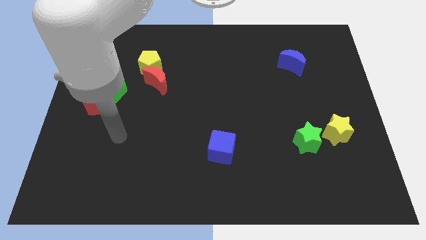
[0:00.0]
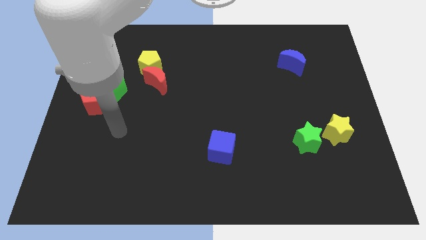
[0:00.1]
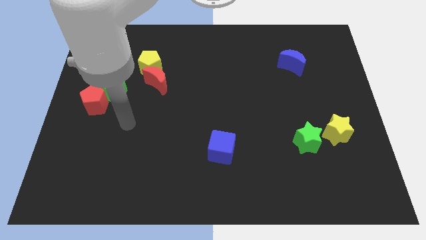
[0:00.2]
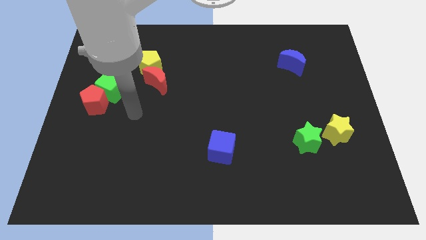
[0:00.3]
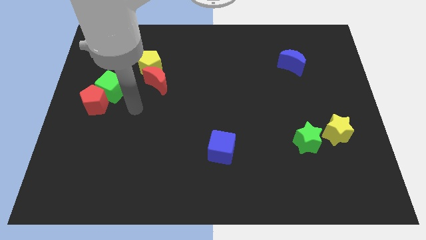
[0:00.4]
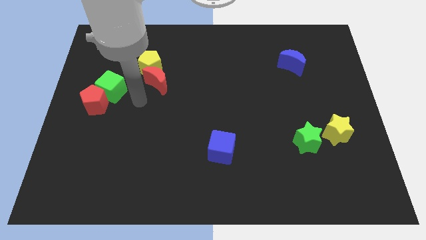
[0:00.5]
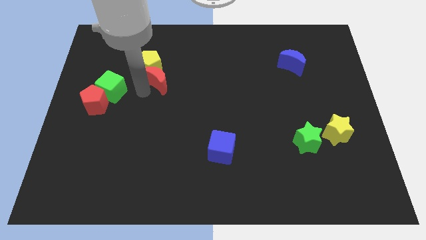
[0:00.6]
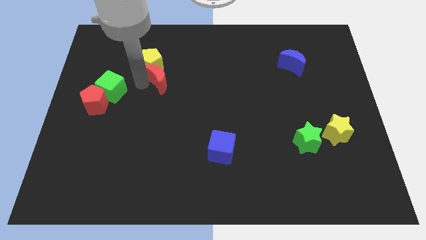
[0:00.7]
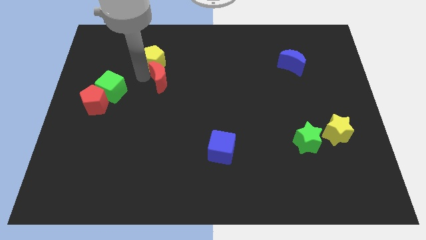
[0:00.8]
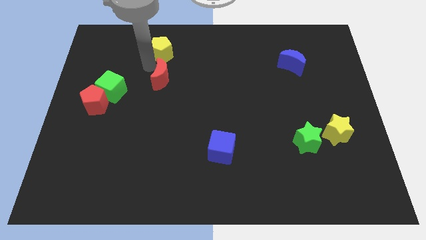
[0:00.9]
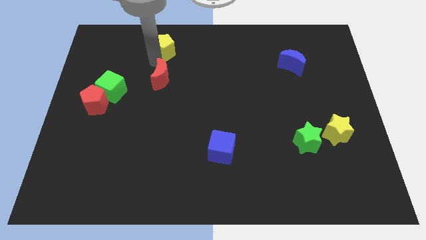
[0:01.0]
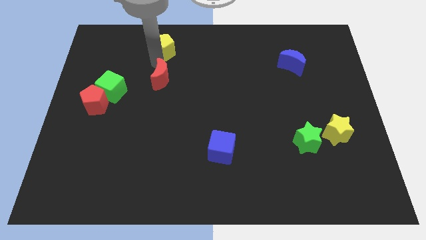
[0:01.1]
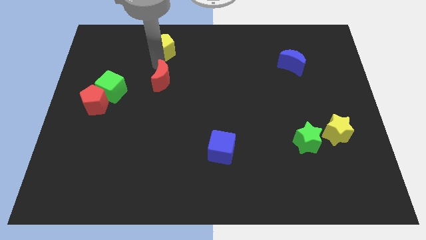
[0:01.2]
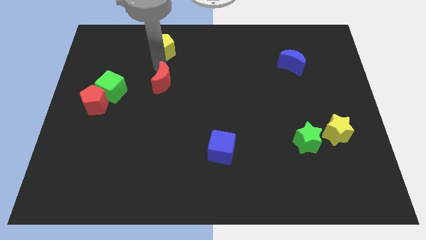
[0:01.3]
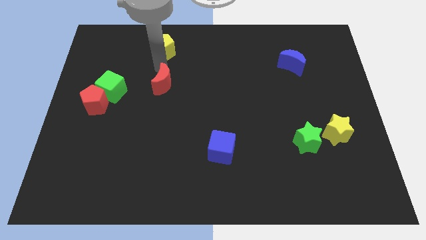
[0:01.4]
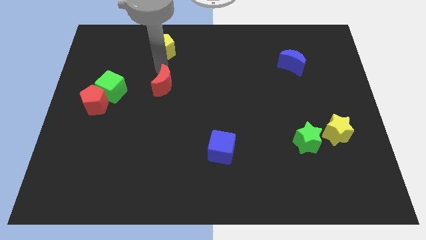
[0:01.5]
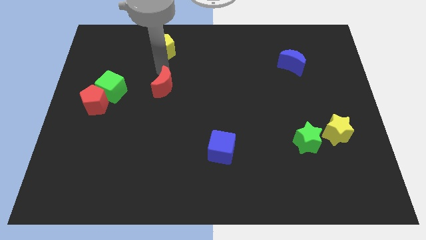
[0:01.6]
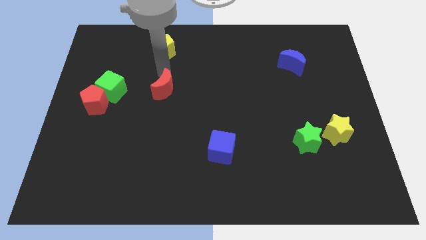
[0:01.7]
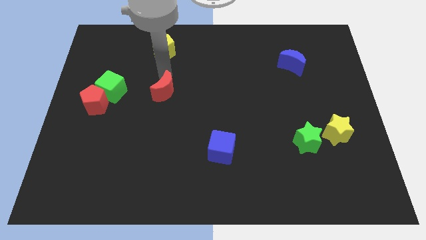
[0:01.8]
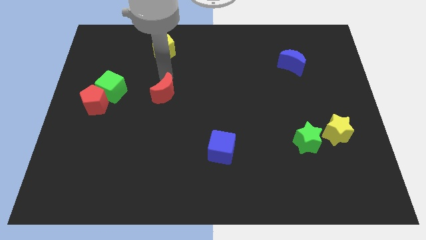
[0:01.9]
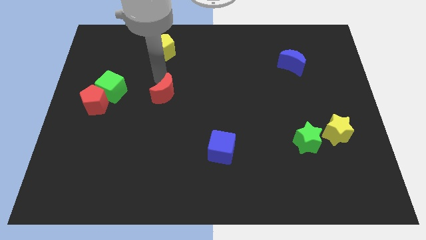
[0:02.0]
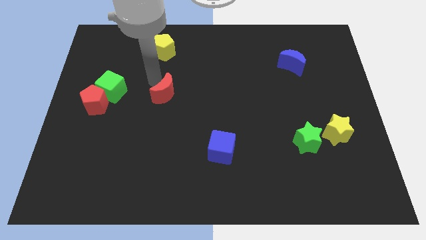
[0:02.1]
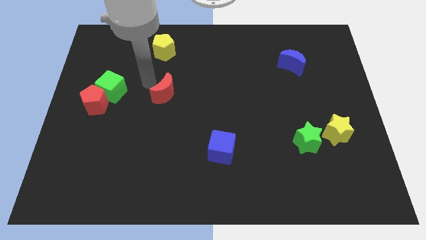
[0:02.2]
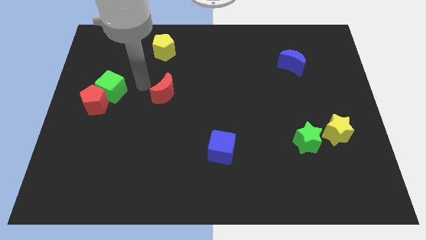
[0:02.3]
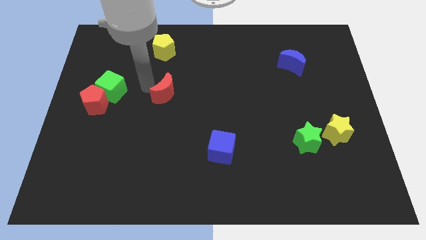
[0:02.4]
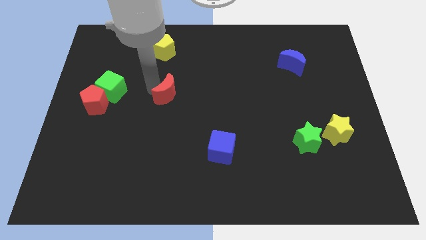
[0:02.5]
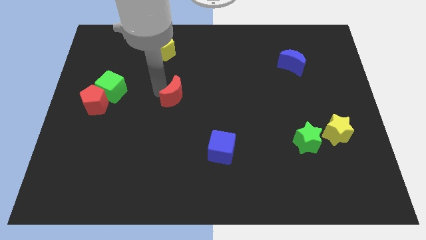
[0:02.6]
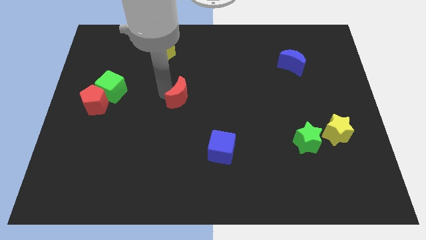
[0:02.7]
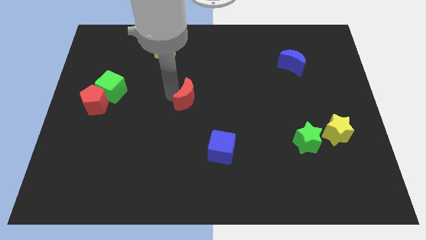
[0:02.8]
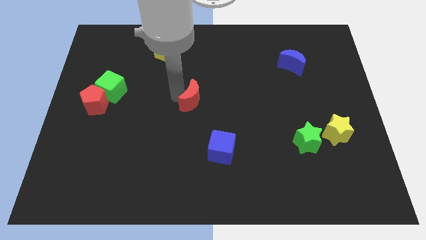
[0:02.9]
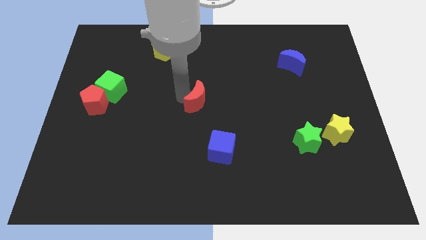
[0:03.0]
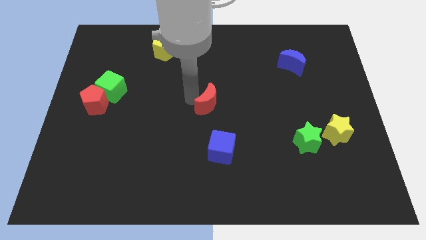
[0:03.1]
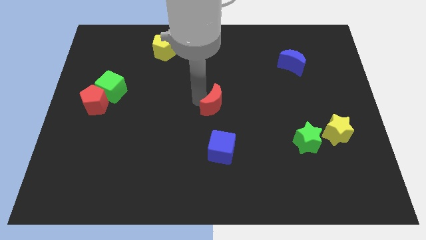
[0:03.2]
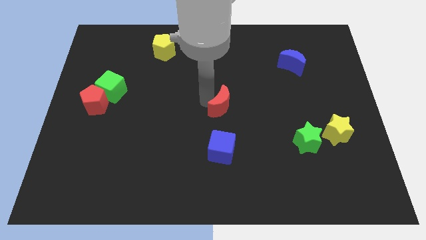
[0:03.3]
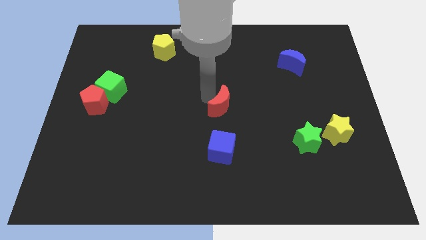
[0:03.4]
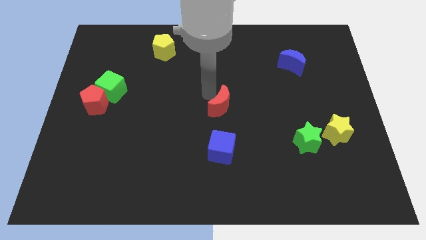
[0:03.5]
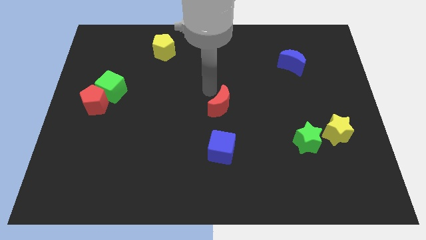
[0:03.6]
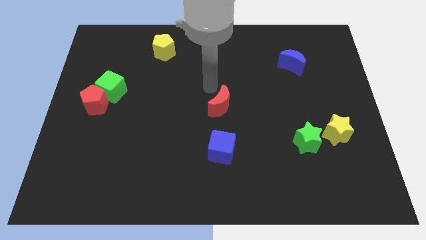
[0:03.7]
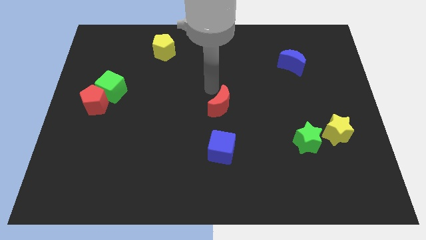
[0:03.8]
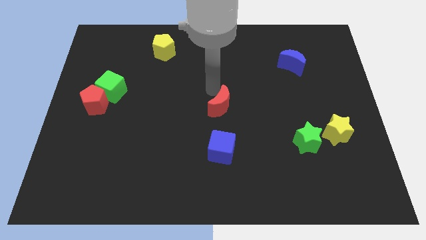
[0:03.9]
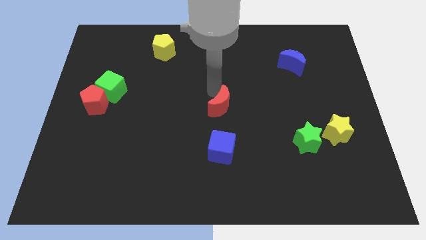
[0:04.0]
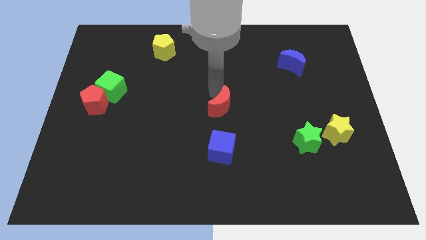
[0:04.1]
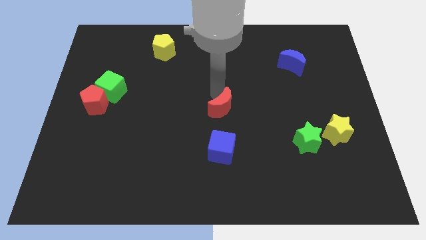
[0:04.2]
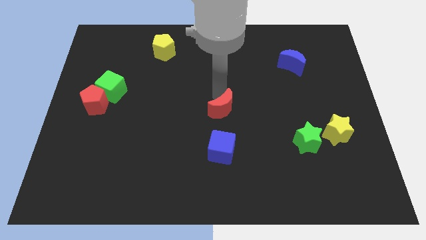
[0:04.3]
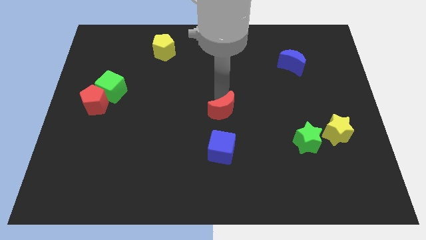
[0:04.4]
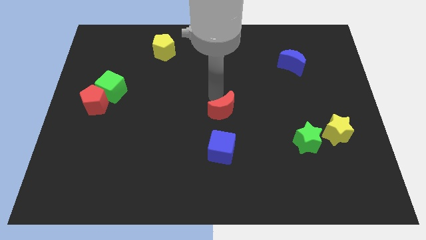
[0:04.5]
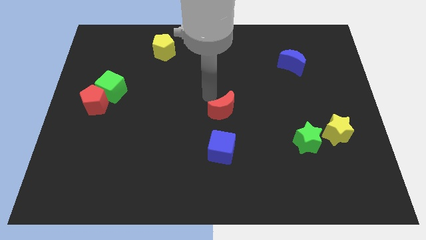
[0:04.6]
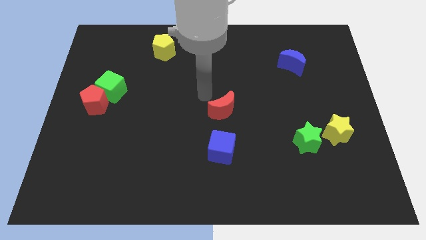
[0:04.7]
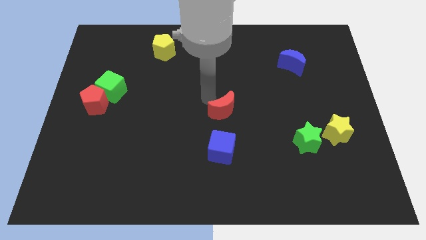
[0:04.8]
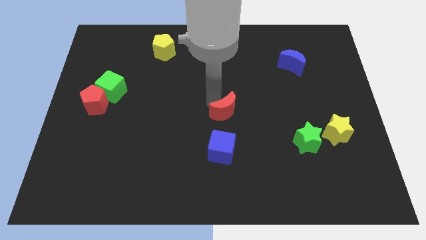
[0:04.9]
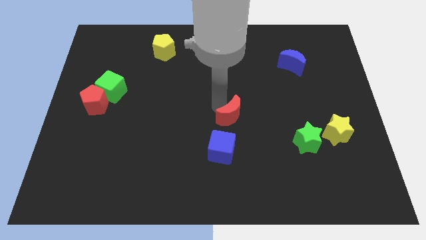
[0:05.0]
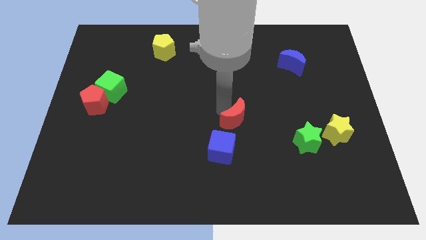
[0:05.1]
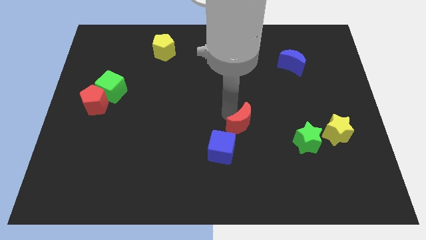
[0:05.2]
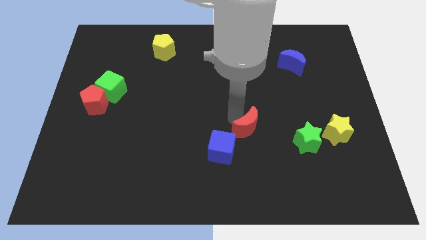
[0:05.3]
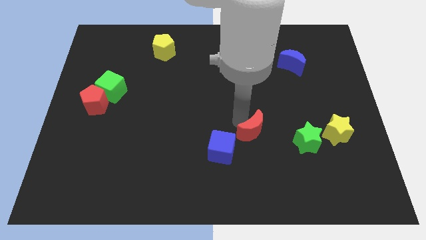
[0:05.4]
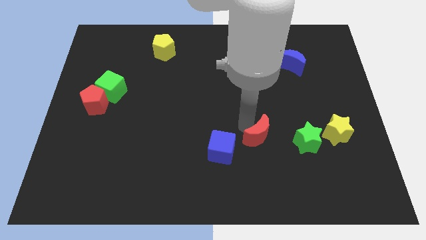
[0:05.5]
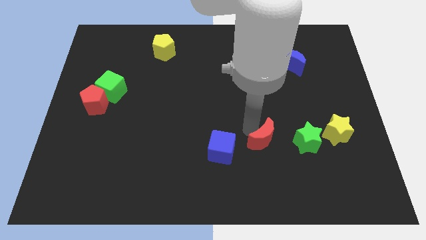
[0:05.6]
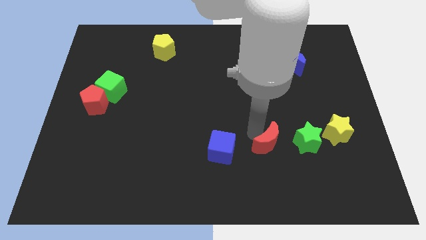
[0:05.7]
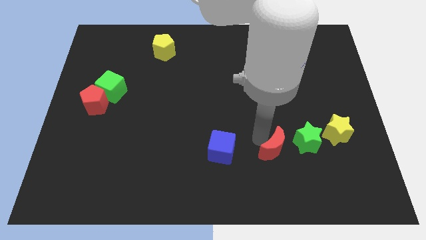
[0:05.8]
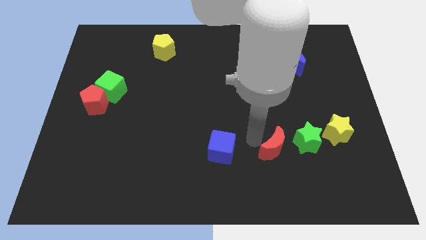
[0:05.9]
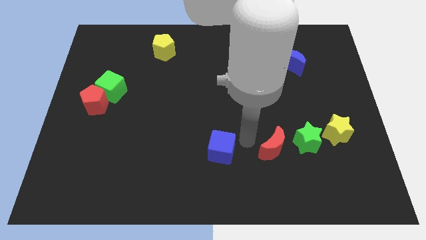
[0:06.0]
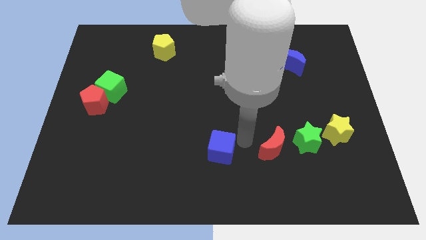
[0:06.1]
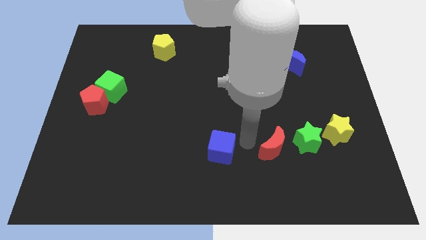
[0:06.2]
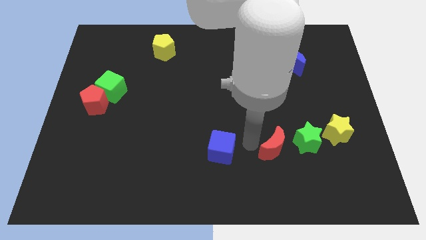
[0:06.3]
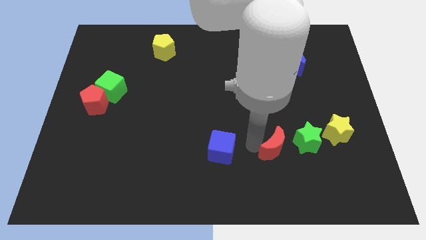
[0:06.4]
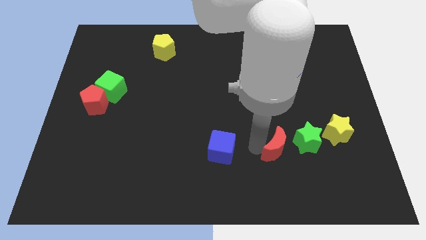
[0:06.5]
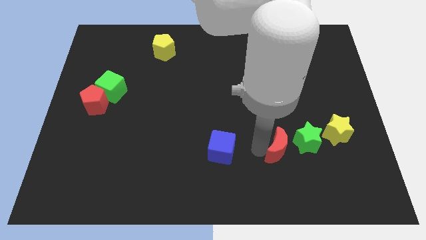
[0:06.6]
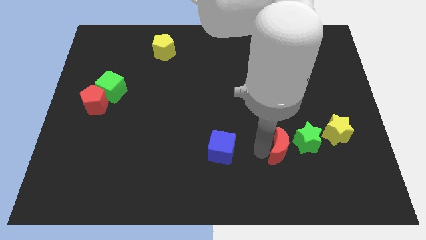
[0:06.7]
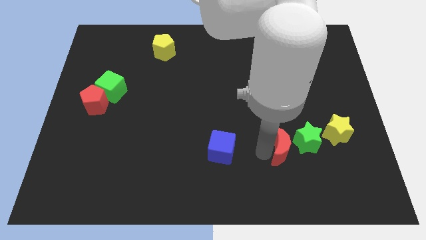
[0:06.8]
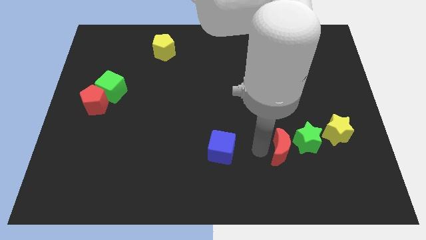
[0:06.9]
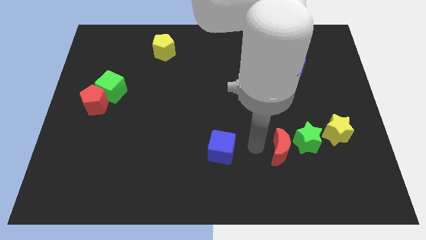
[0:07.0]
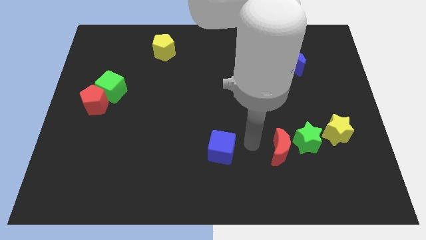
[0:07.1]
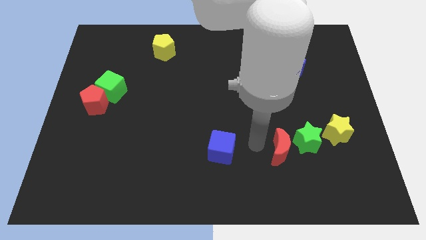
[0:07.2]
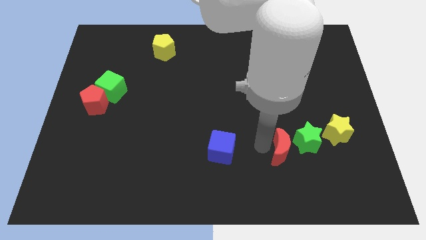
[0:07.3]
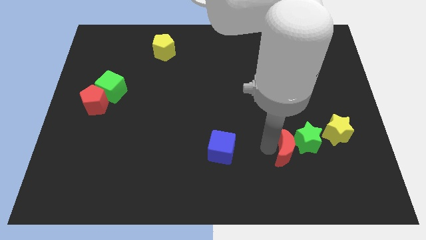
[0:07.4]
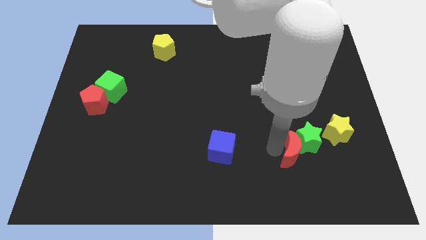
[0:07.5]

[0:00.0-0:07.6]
put the red moon to the bottom left of the yellow star
